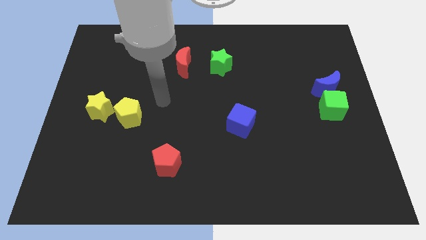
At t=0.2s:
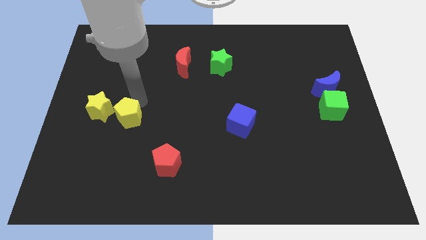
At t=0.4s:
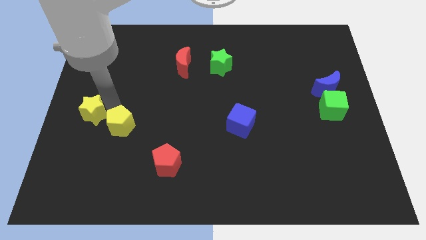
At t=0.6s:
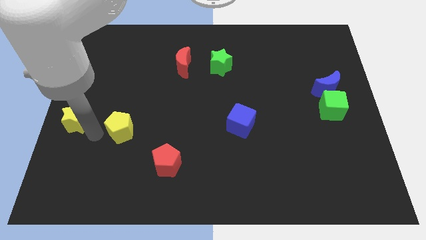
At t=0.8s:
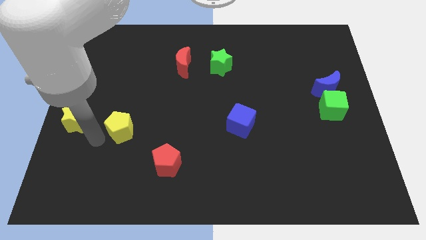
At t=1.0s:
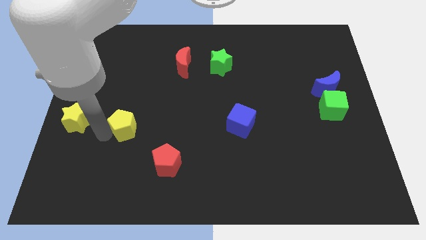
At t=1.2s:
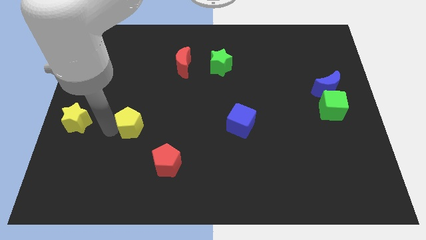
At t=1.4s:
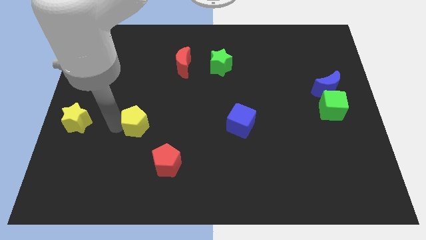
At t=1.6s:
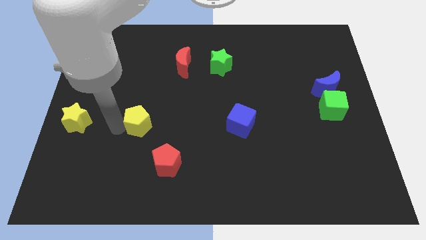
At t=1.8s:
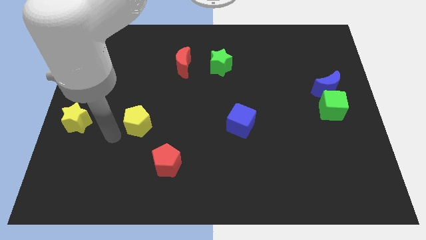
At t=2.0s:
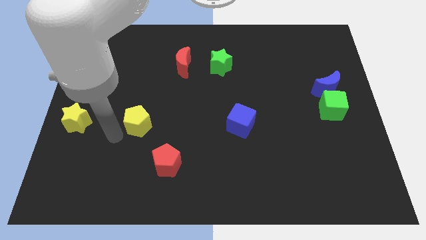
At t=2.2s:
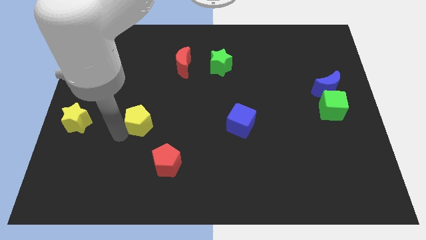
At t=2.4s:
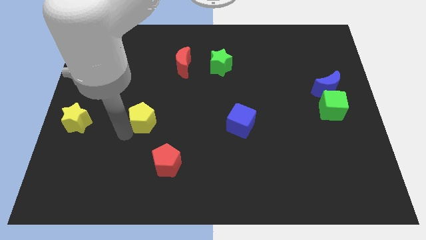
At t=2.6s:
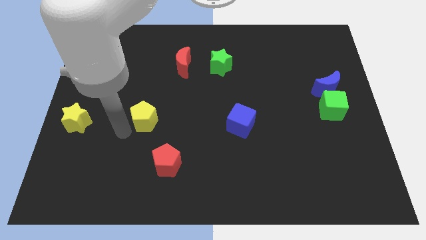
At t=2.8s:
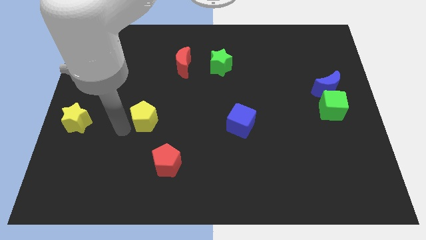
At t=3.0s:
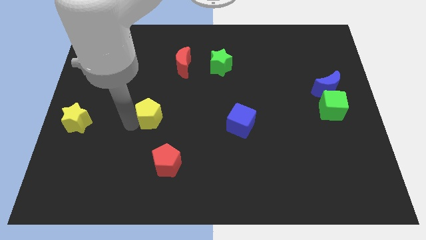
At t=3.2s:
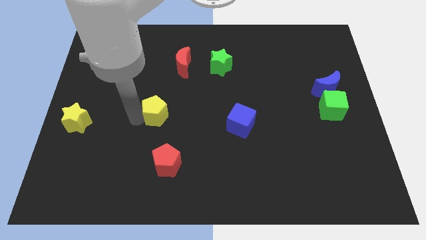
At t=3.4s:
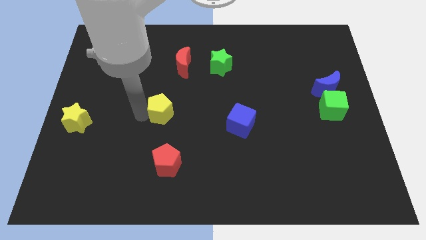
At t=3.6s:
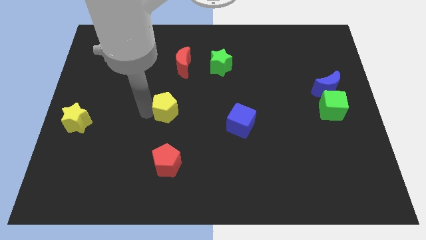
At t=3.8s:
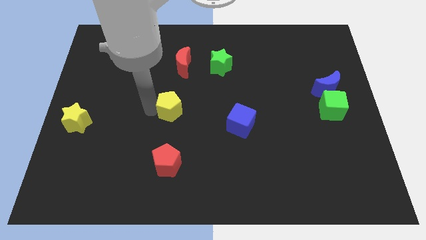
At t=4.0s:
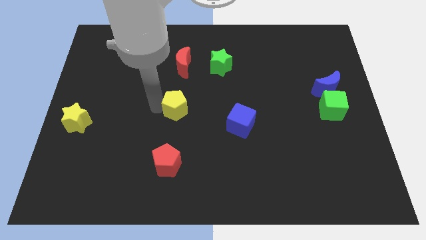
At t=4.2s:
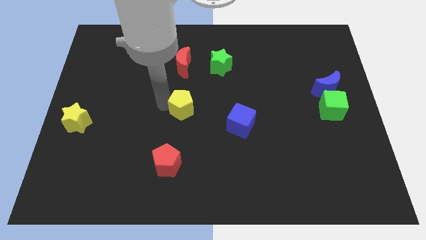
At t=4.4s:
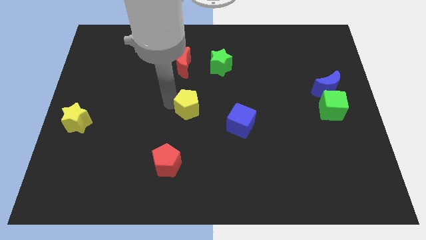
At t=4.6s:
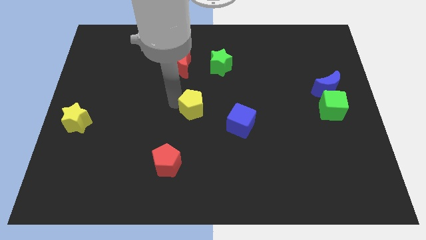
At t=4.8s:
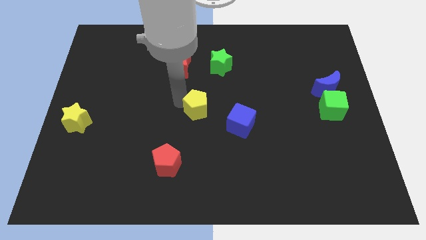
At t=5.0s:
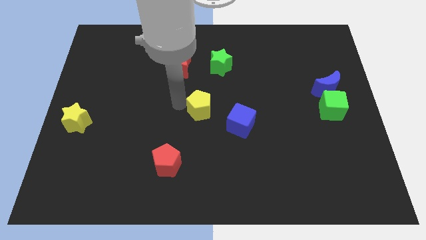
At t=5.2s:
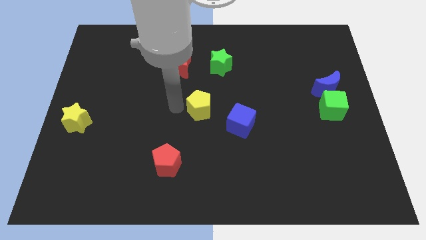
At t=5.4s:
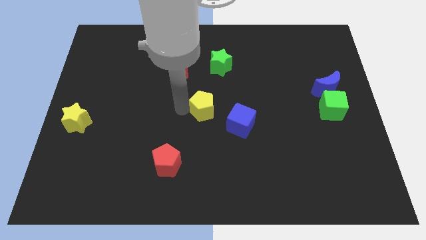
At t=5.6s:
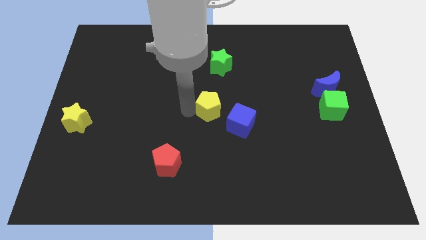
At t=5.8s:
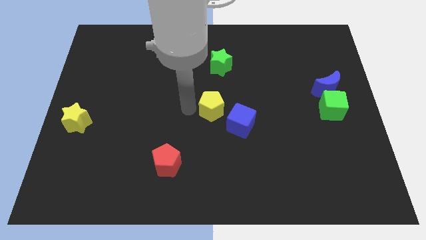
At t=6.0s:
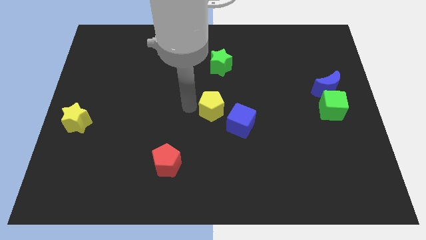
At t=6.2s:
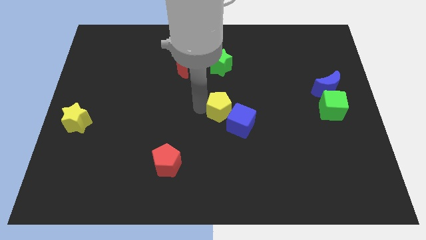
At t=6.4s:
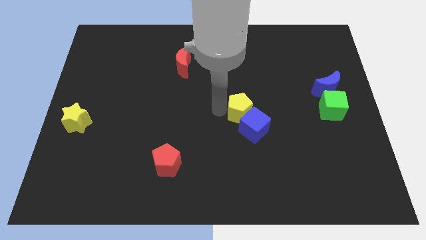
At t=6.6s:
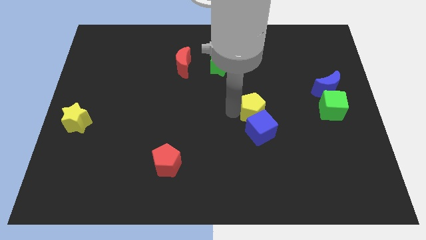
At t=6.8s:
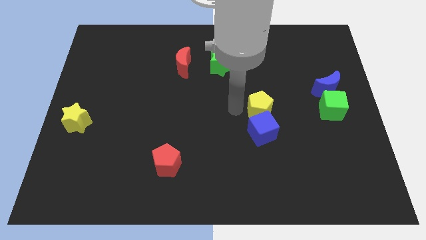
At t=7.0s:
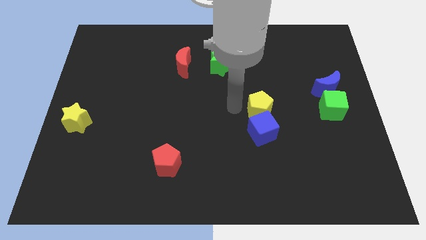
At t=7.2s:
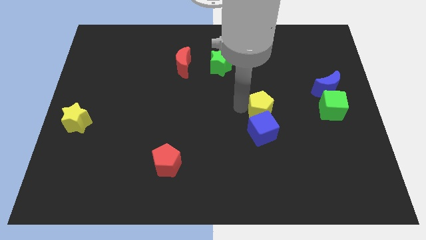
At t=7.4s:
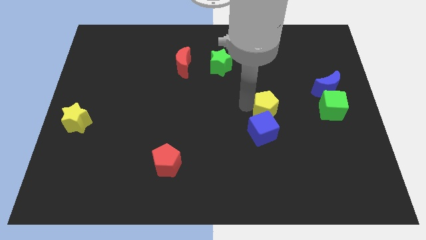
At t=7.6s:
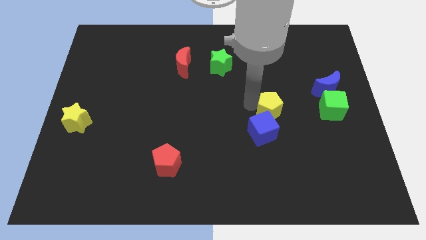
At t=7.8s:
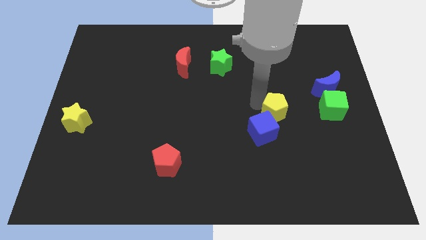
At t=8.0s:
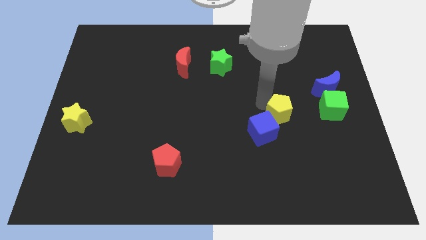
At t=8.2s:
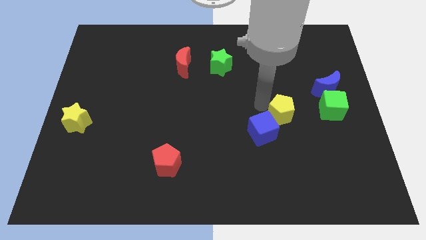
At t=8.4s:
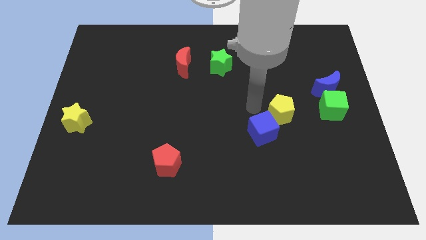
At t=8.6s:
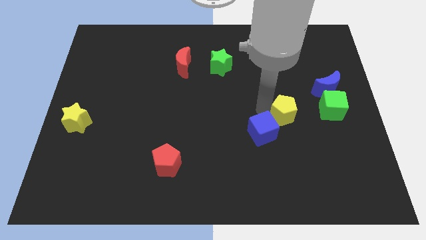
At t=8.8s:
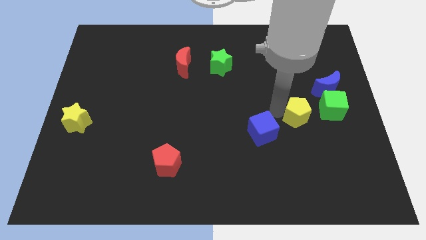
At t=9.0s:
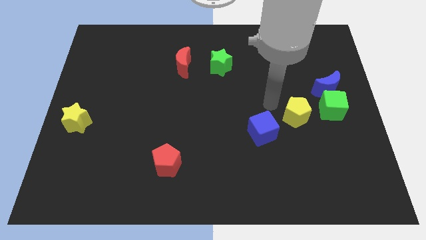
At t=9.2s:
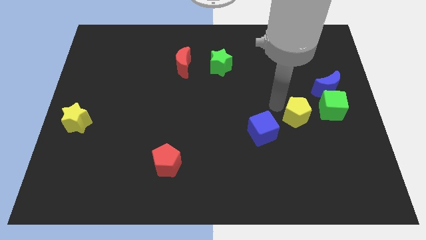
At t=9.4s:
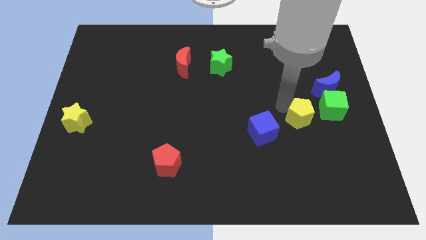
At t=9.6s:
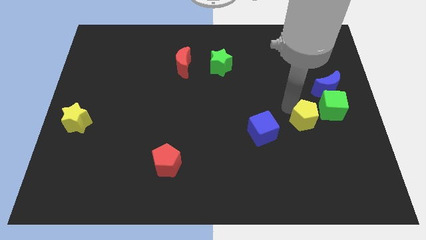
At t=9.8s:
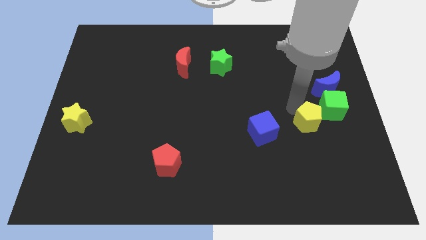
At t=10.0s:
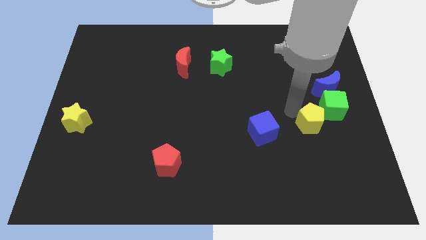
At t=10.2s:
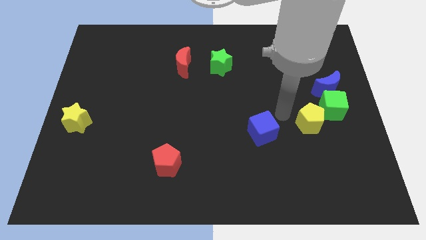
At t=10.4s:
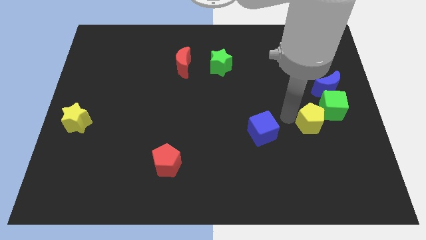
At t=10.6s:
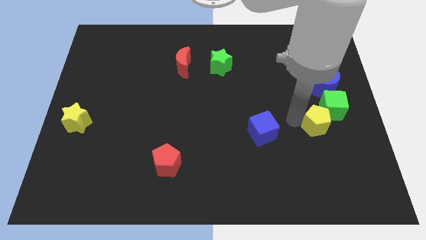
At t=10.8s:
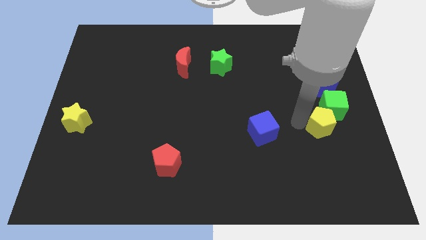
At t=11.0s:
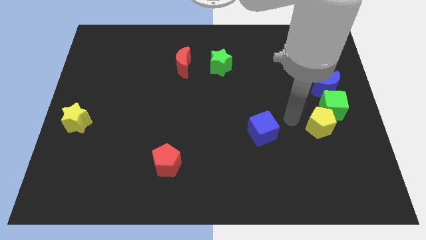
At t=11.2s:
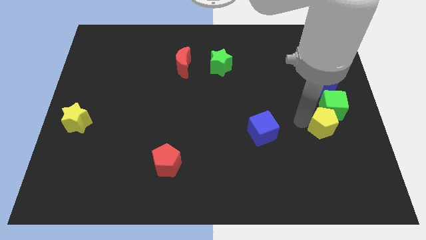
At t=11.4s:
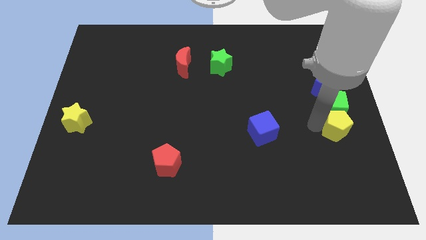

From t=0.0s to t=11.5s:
slide the yellow pentagon to the center right

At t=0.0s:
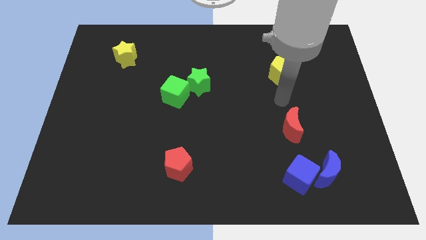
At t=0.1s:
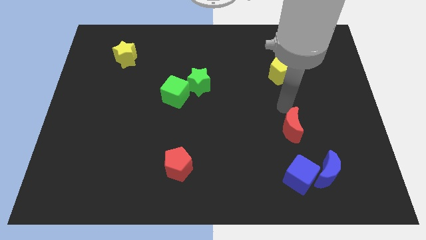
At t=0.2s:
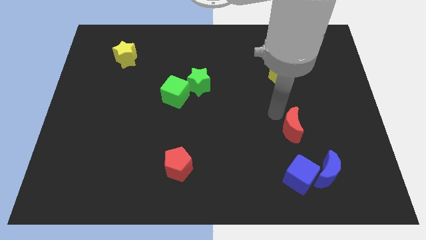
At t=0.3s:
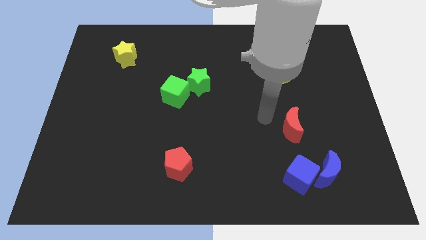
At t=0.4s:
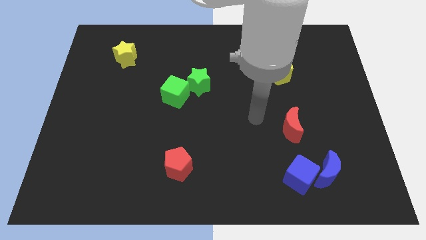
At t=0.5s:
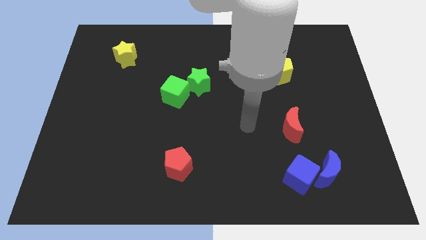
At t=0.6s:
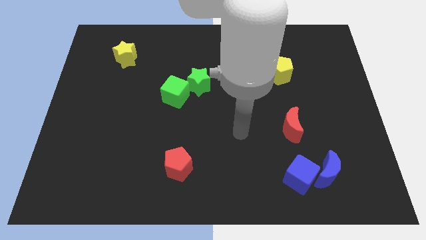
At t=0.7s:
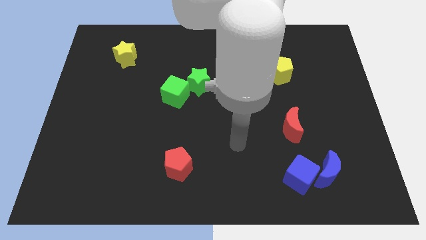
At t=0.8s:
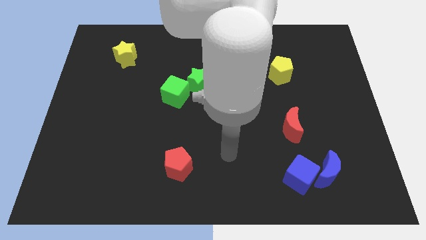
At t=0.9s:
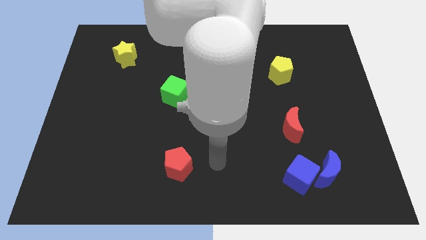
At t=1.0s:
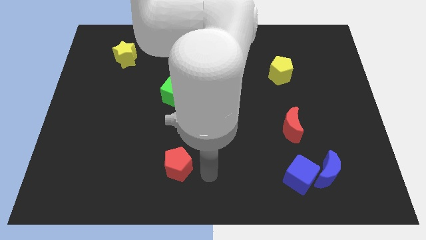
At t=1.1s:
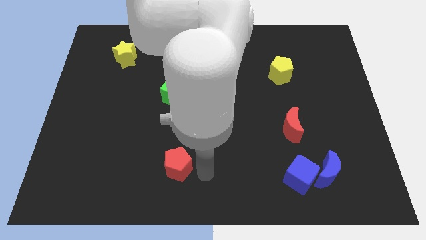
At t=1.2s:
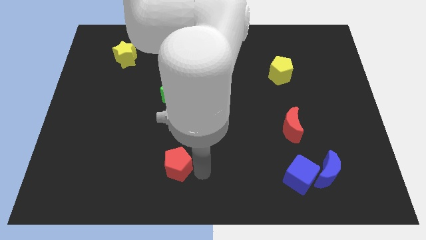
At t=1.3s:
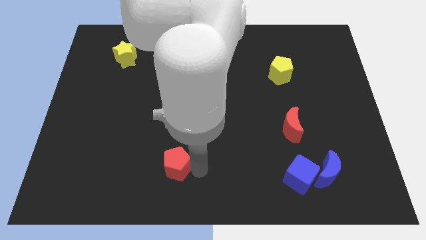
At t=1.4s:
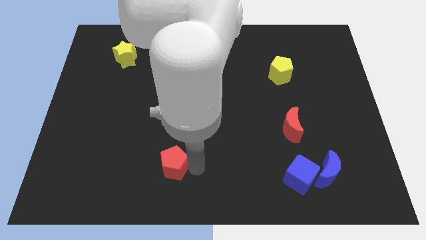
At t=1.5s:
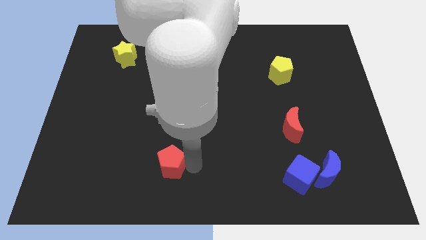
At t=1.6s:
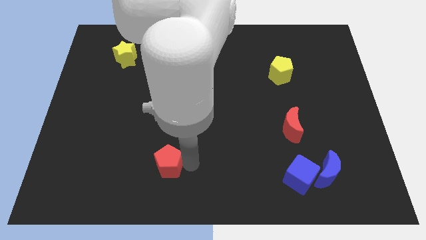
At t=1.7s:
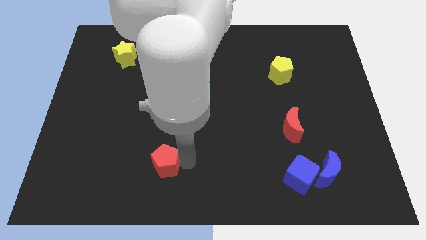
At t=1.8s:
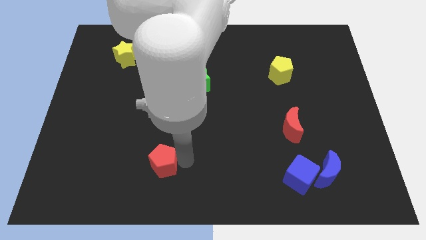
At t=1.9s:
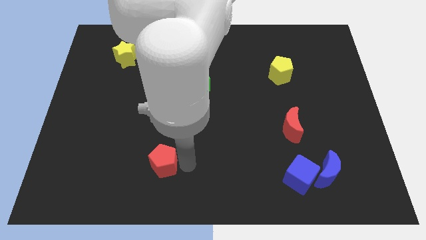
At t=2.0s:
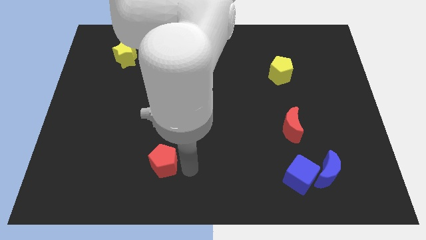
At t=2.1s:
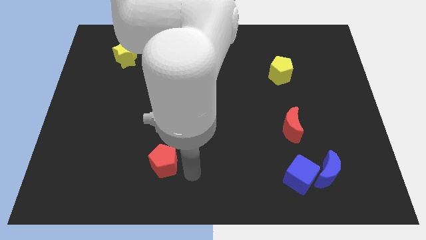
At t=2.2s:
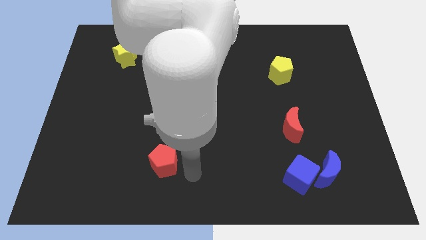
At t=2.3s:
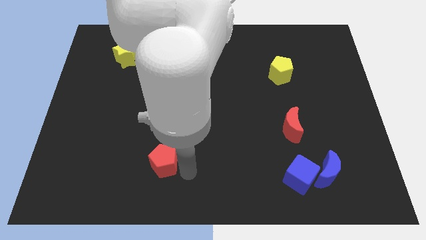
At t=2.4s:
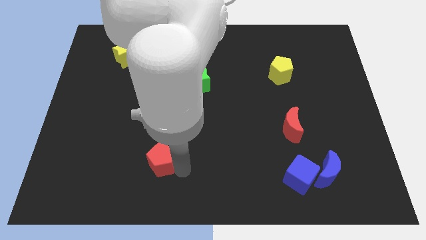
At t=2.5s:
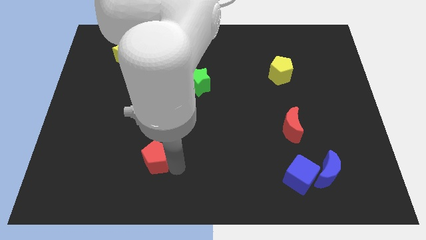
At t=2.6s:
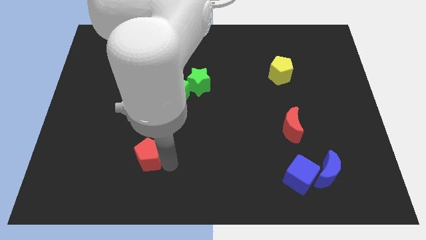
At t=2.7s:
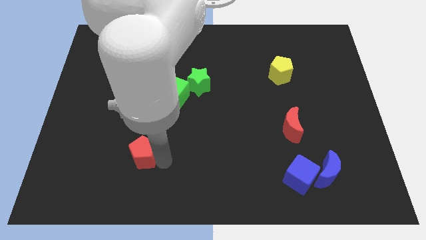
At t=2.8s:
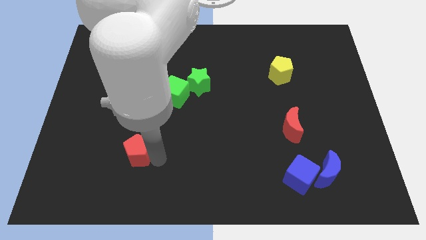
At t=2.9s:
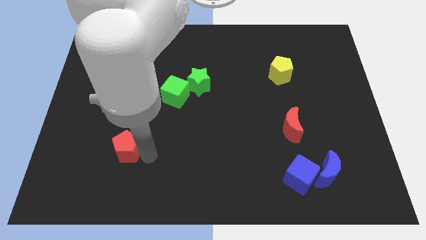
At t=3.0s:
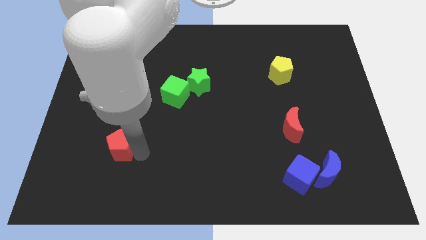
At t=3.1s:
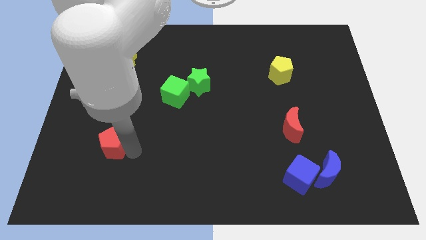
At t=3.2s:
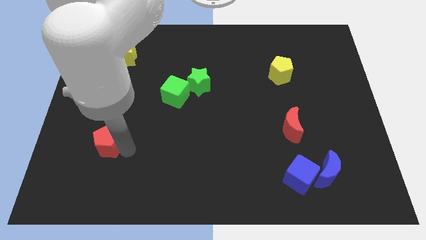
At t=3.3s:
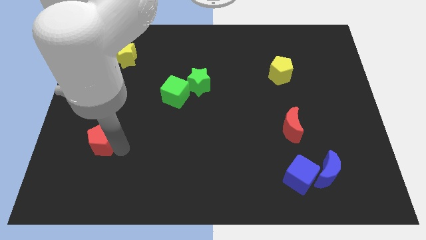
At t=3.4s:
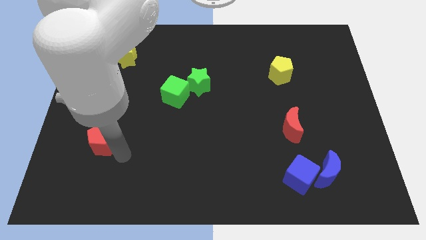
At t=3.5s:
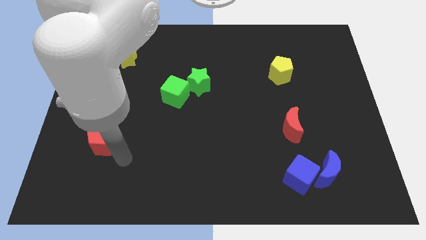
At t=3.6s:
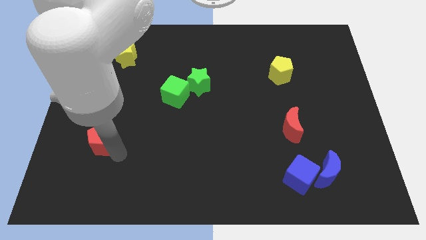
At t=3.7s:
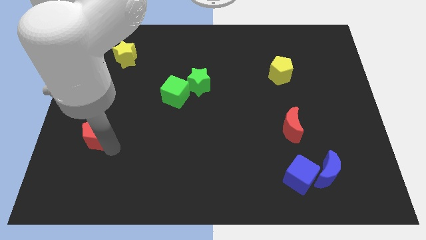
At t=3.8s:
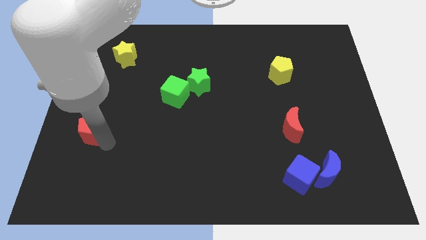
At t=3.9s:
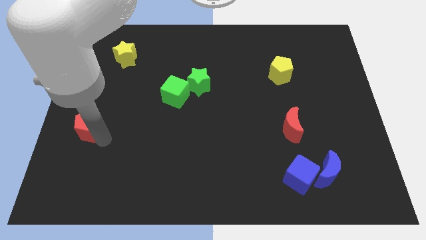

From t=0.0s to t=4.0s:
push the red pentagon to the center left
